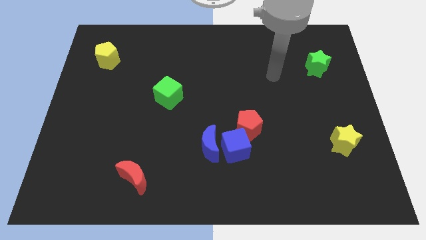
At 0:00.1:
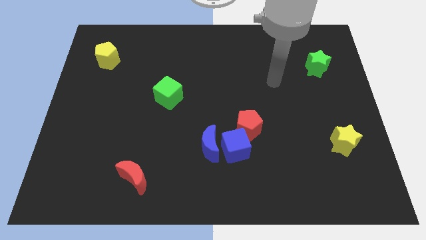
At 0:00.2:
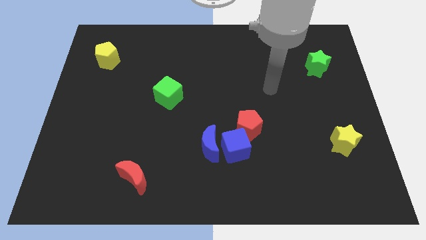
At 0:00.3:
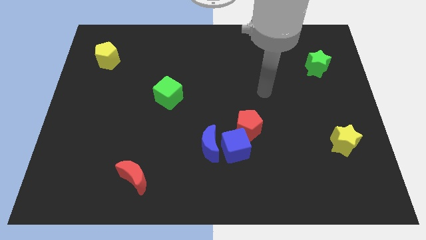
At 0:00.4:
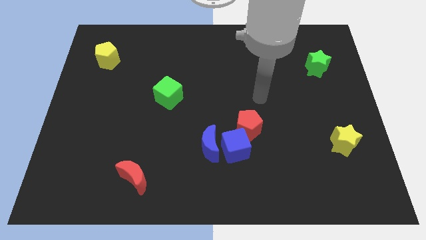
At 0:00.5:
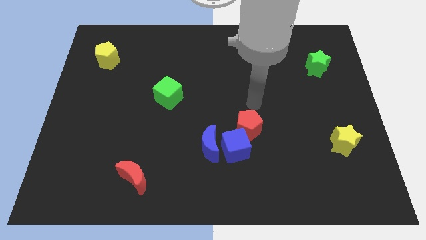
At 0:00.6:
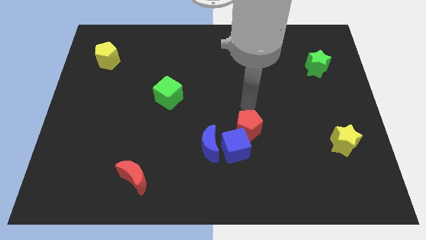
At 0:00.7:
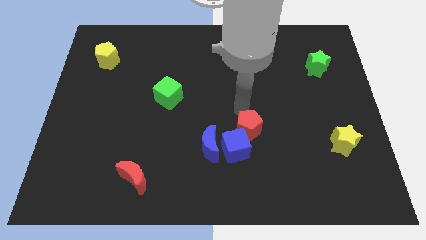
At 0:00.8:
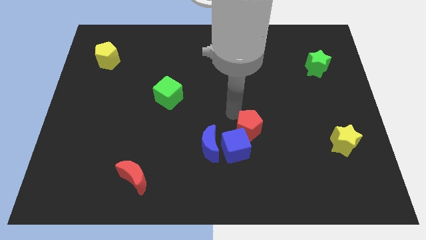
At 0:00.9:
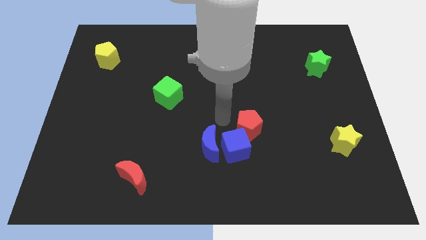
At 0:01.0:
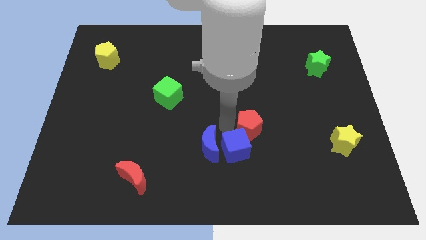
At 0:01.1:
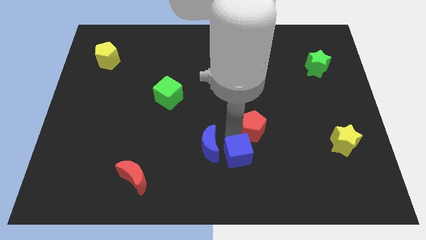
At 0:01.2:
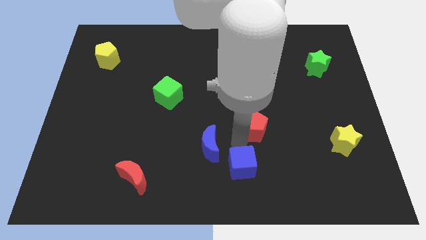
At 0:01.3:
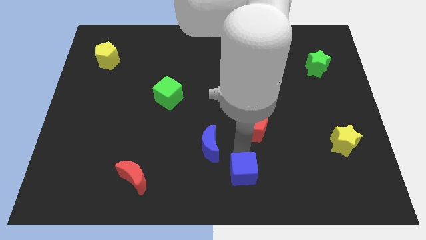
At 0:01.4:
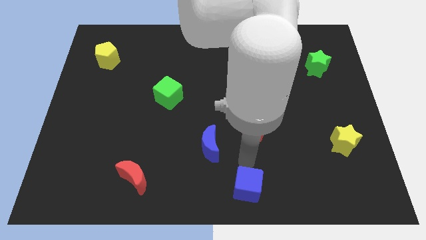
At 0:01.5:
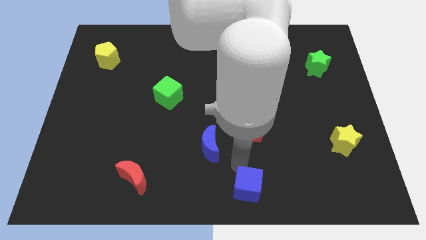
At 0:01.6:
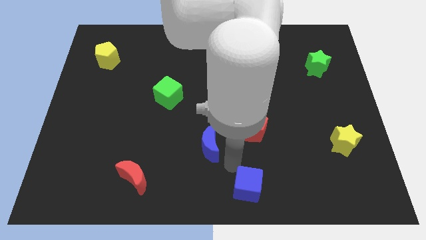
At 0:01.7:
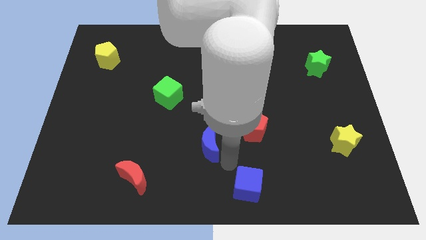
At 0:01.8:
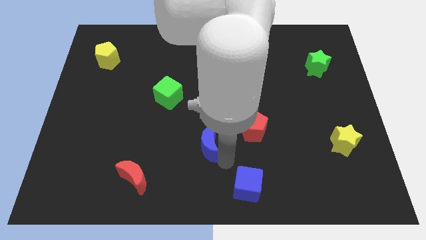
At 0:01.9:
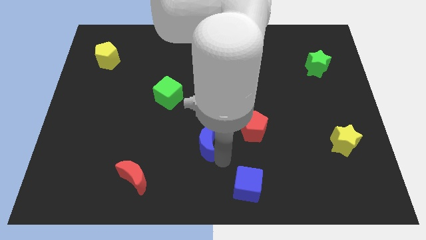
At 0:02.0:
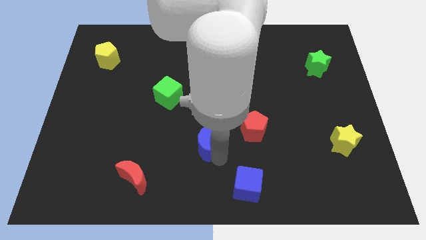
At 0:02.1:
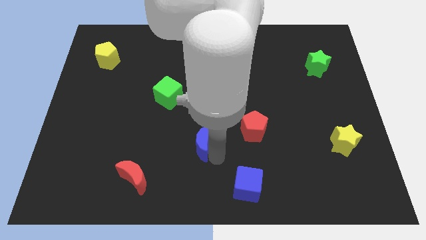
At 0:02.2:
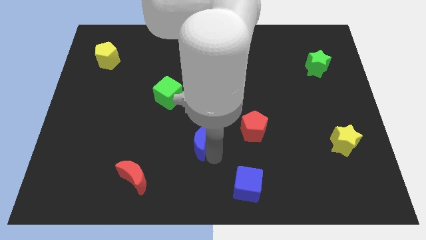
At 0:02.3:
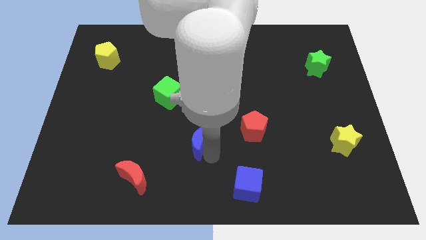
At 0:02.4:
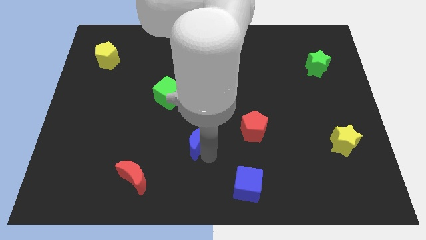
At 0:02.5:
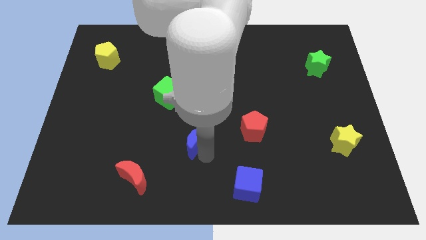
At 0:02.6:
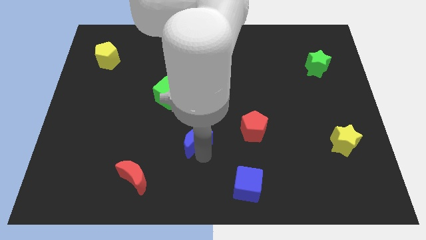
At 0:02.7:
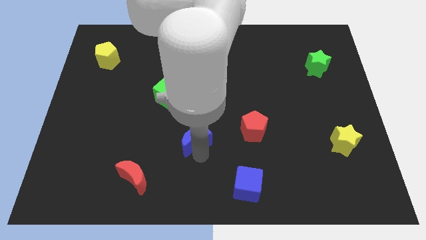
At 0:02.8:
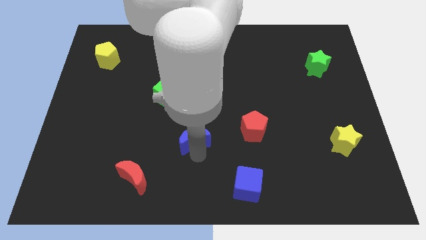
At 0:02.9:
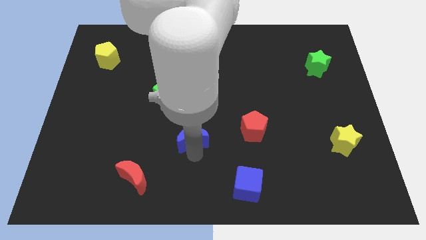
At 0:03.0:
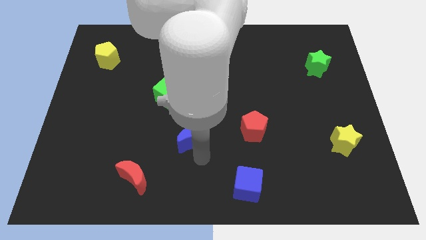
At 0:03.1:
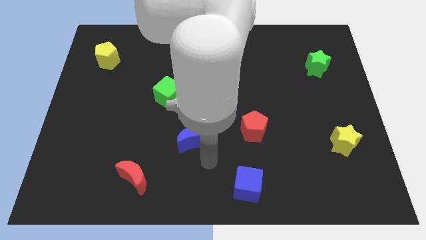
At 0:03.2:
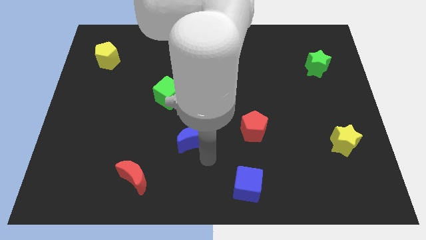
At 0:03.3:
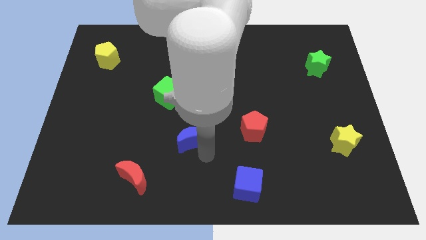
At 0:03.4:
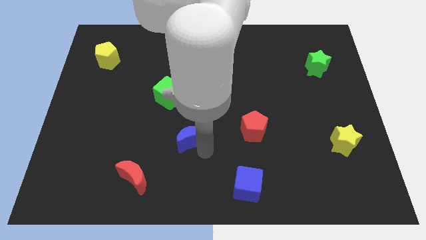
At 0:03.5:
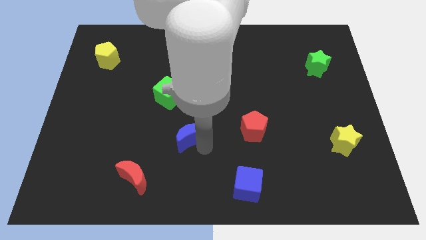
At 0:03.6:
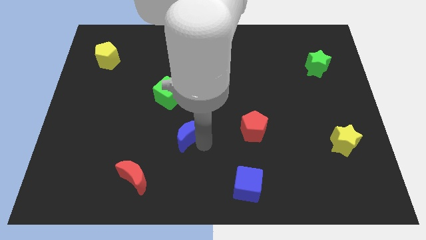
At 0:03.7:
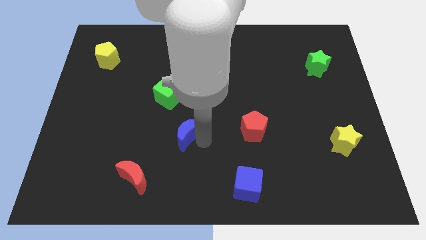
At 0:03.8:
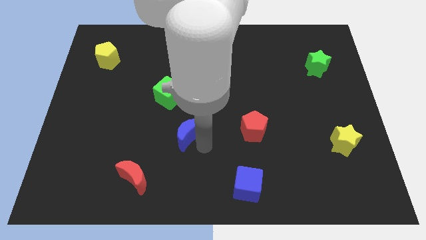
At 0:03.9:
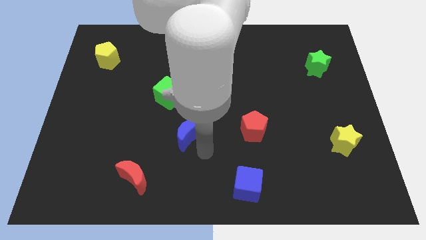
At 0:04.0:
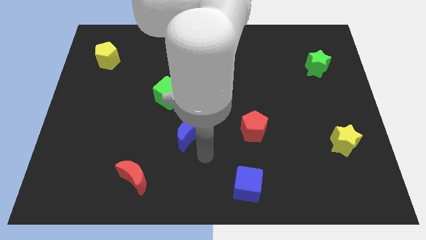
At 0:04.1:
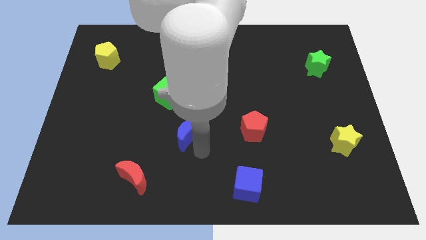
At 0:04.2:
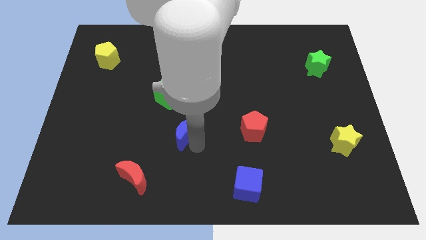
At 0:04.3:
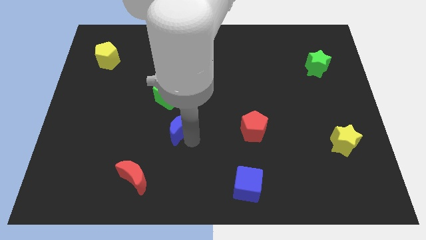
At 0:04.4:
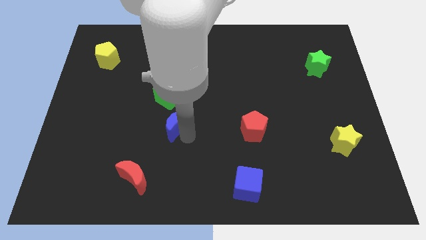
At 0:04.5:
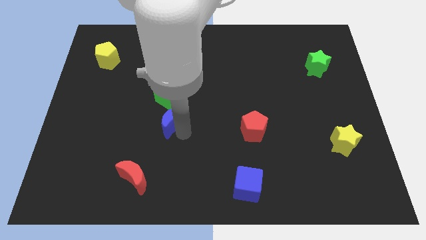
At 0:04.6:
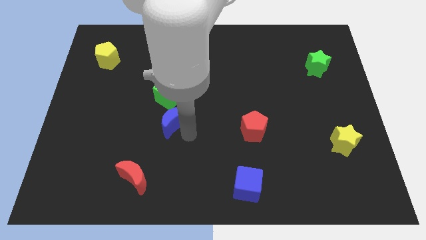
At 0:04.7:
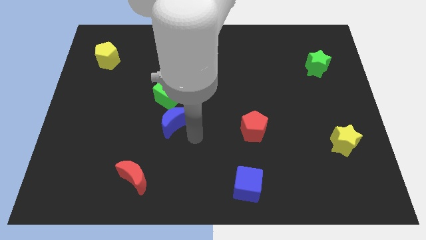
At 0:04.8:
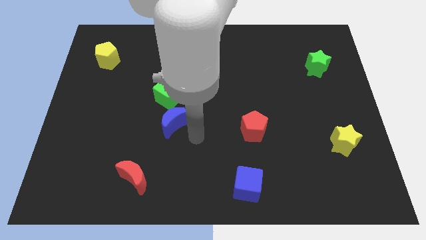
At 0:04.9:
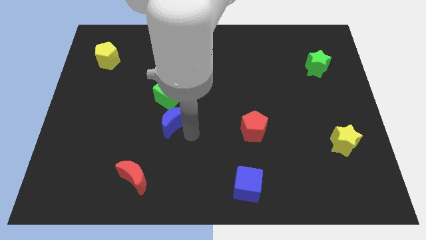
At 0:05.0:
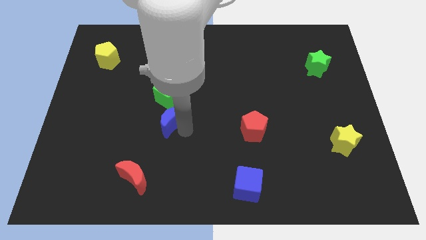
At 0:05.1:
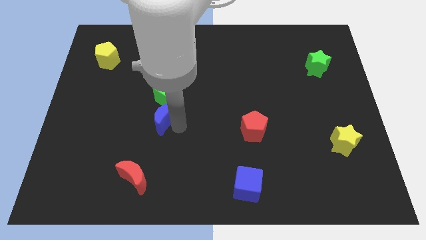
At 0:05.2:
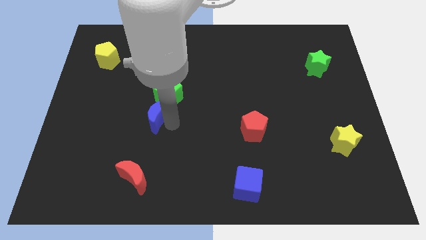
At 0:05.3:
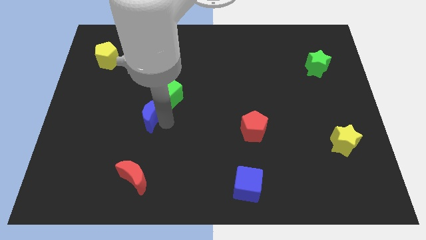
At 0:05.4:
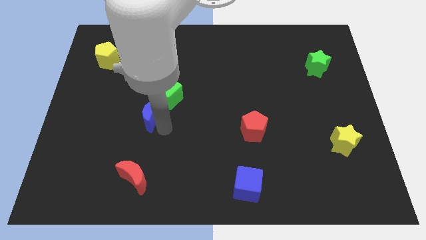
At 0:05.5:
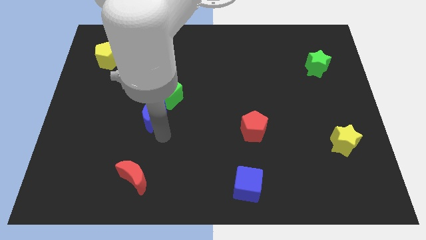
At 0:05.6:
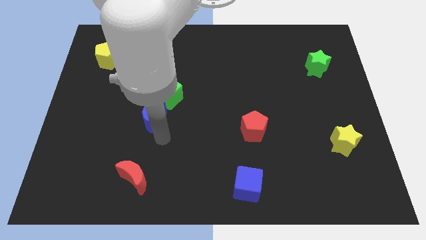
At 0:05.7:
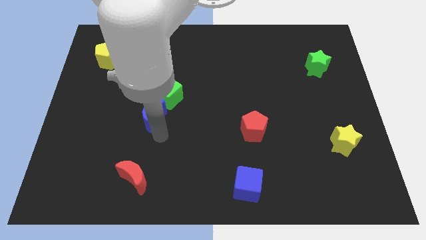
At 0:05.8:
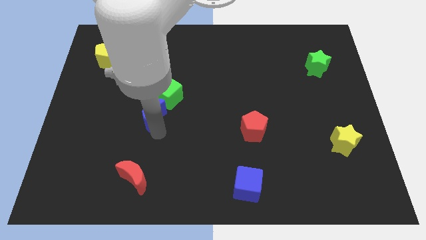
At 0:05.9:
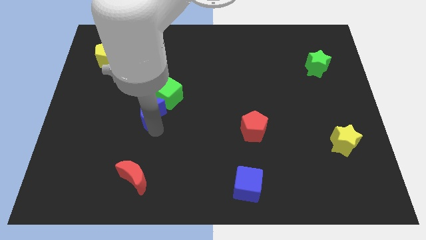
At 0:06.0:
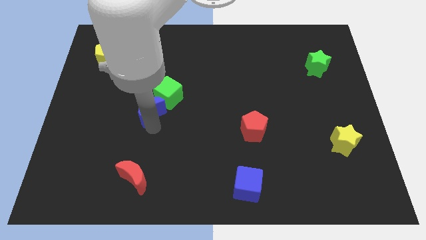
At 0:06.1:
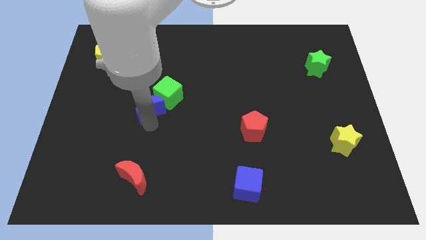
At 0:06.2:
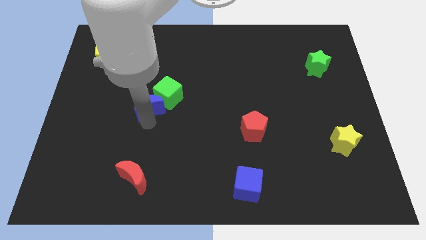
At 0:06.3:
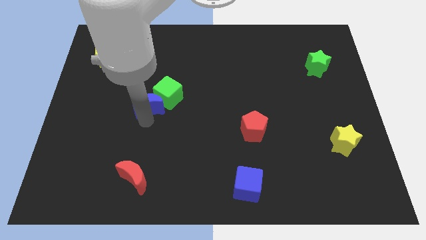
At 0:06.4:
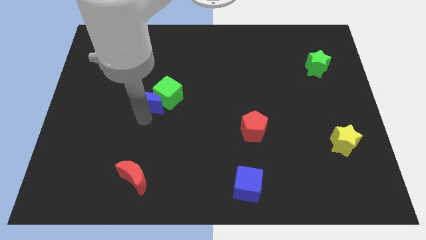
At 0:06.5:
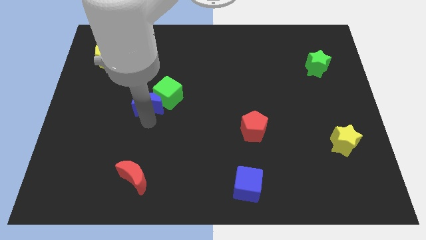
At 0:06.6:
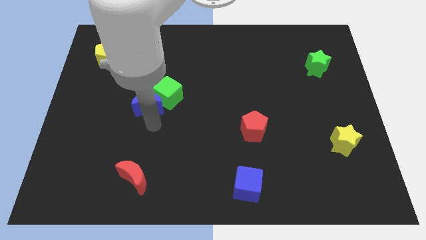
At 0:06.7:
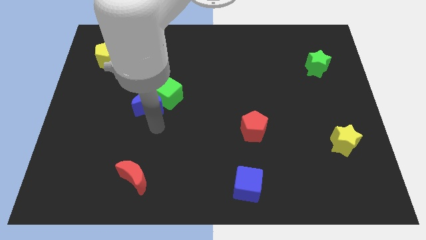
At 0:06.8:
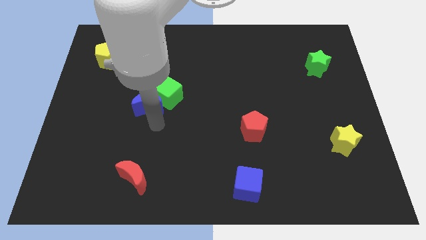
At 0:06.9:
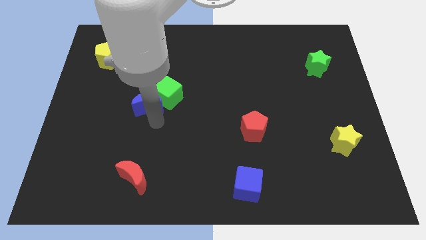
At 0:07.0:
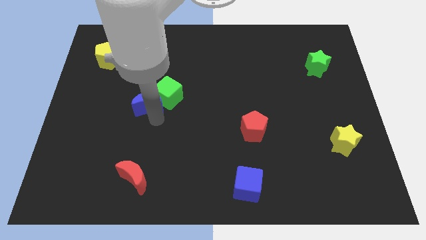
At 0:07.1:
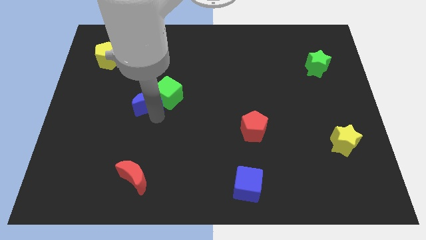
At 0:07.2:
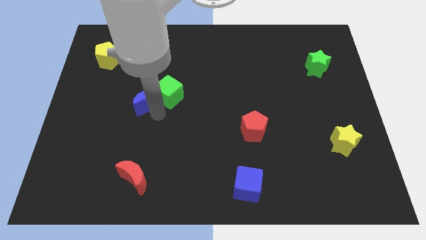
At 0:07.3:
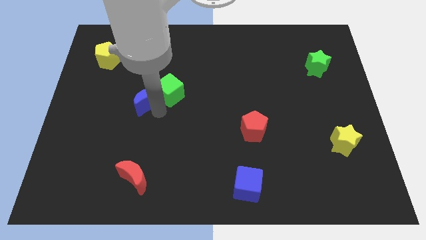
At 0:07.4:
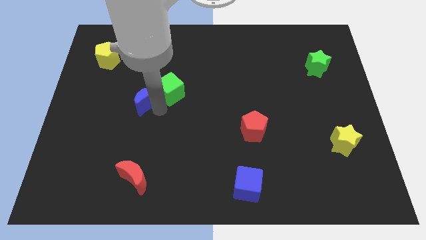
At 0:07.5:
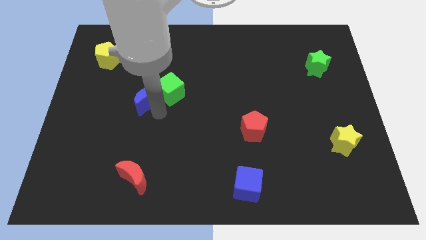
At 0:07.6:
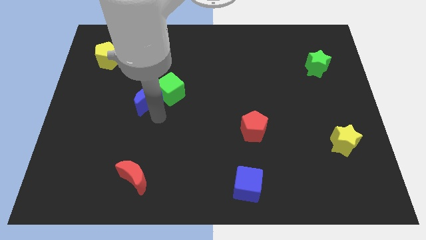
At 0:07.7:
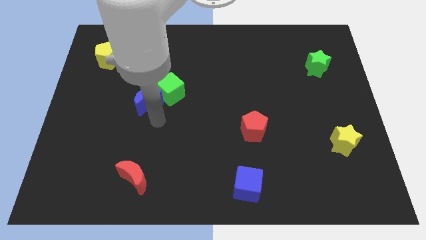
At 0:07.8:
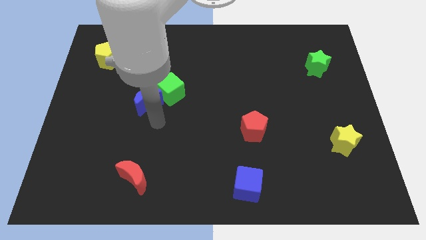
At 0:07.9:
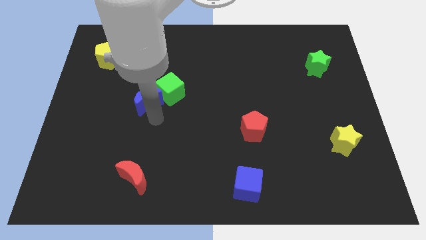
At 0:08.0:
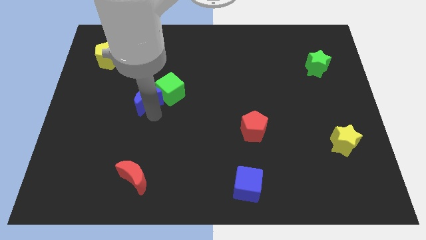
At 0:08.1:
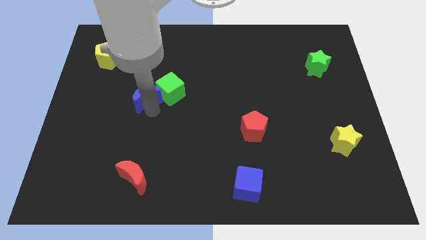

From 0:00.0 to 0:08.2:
push the blue moon upwards and to the left diagonally
